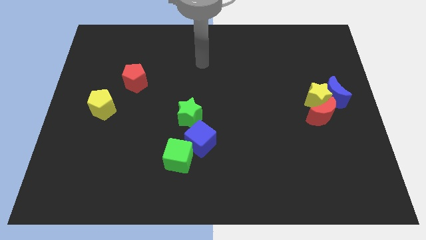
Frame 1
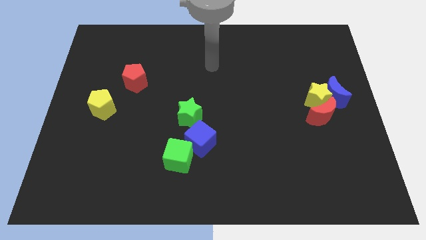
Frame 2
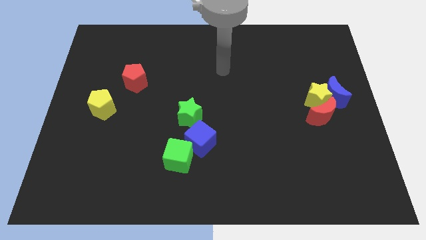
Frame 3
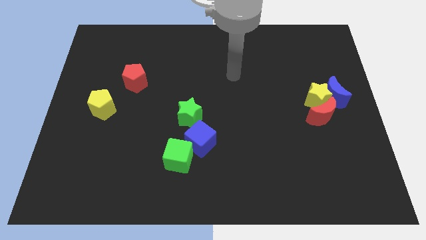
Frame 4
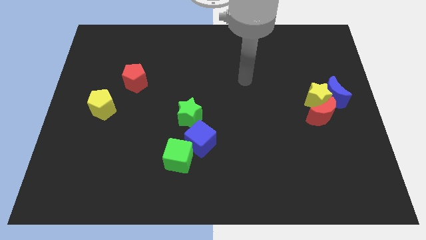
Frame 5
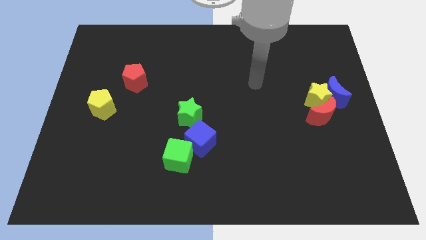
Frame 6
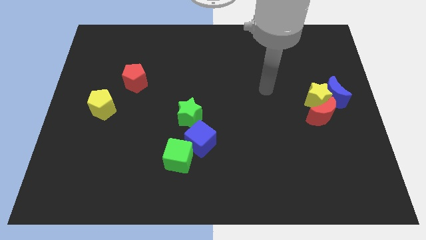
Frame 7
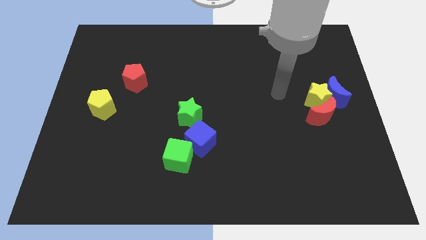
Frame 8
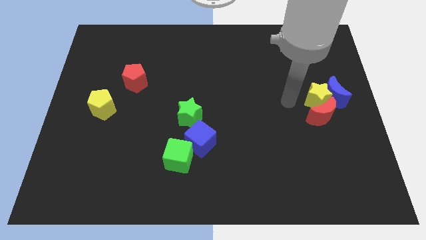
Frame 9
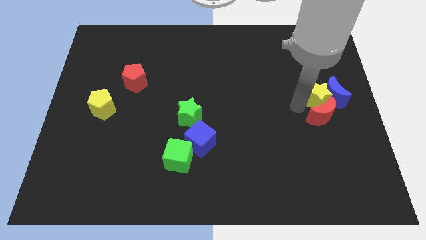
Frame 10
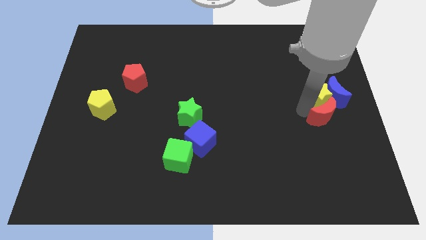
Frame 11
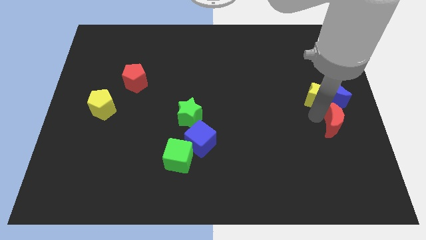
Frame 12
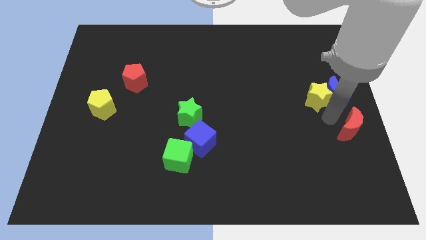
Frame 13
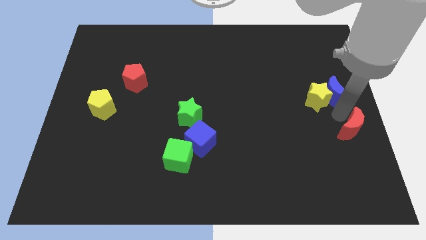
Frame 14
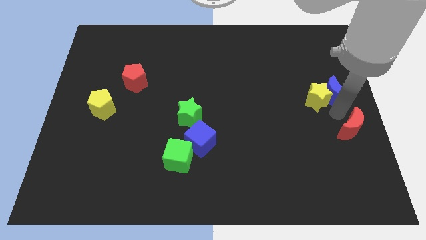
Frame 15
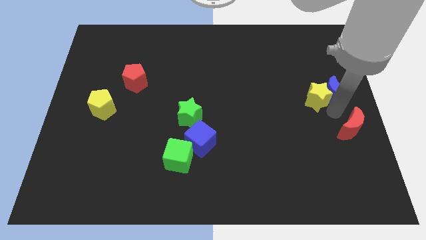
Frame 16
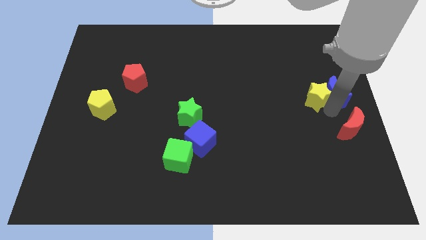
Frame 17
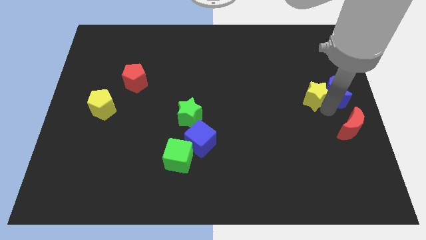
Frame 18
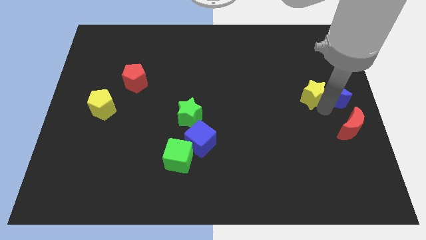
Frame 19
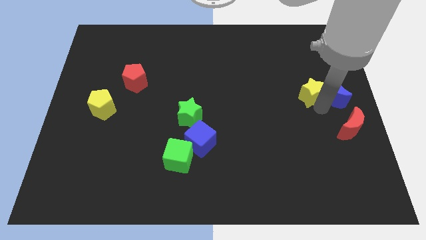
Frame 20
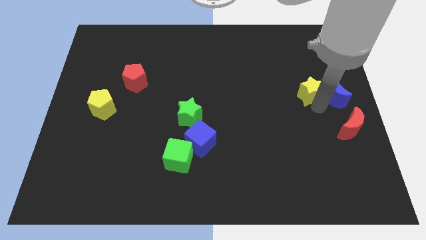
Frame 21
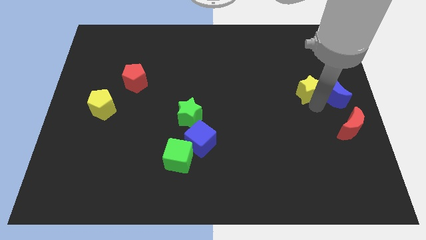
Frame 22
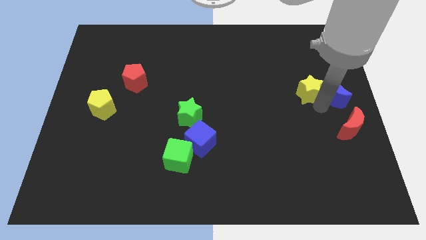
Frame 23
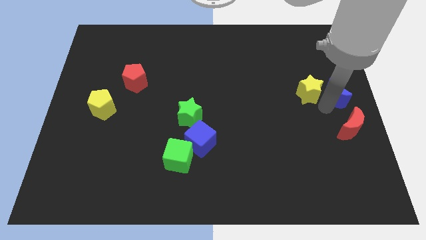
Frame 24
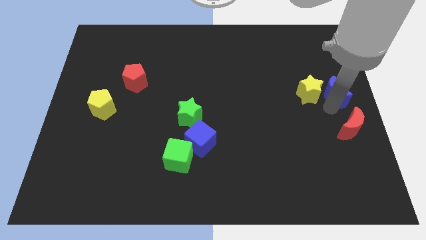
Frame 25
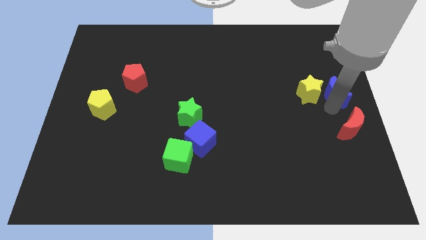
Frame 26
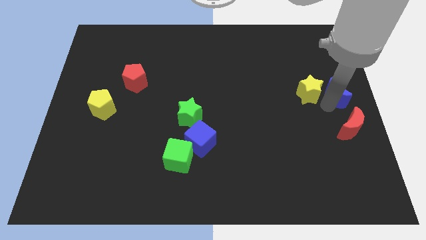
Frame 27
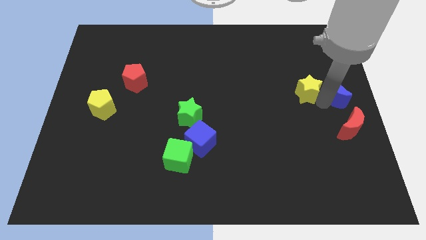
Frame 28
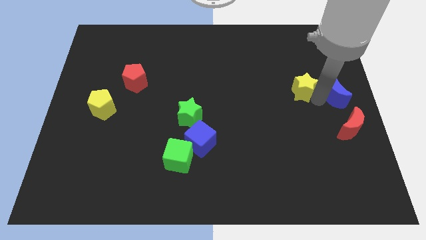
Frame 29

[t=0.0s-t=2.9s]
separate the yellow star from the blue moon and red moon

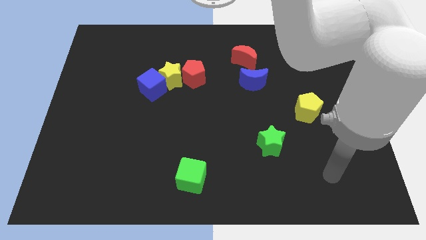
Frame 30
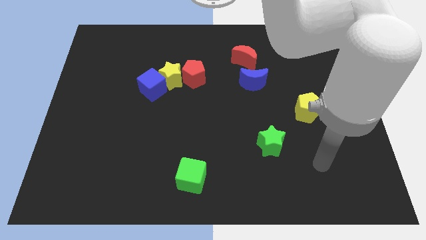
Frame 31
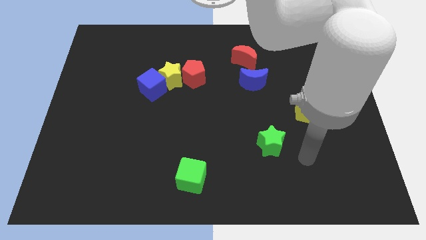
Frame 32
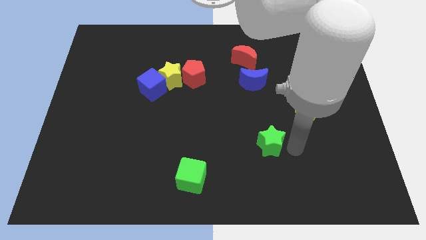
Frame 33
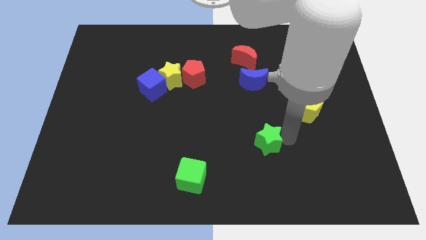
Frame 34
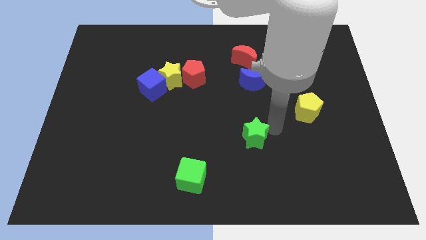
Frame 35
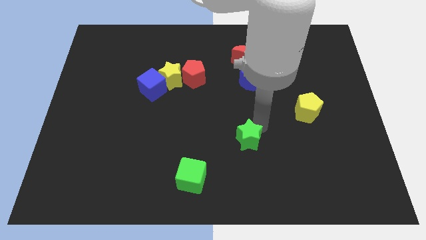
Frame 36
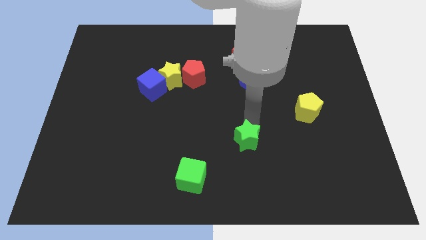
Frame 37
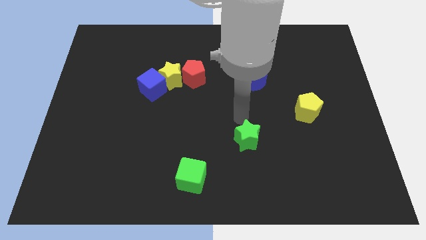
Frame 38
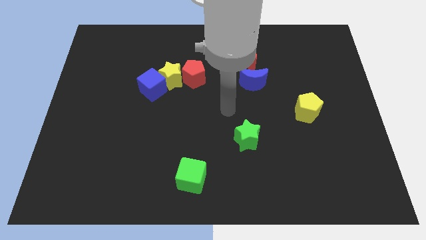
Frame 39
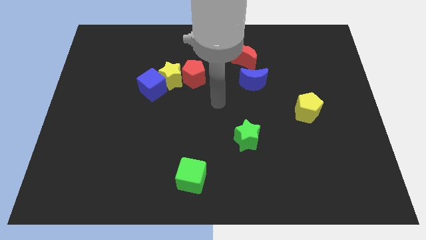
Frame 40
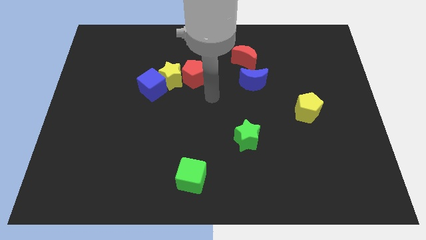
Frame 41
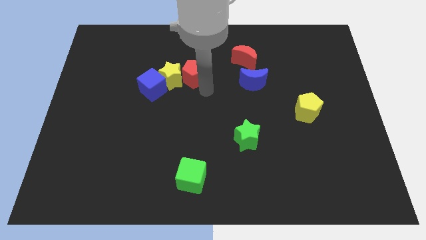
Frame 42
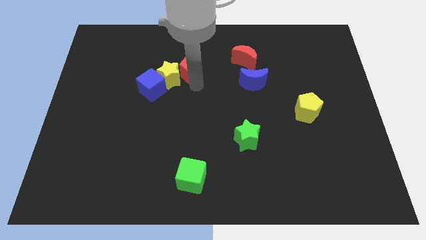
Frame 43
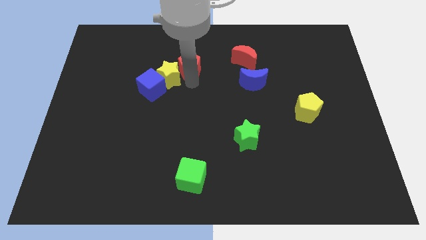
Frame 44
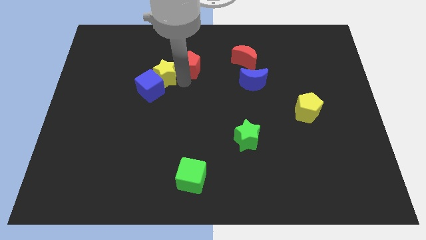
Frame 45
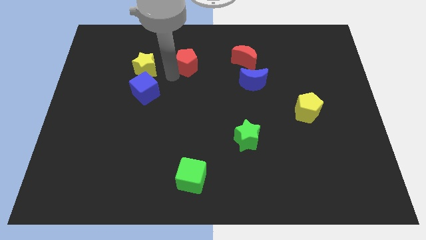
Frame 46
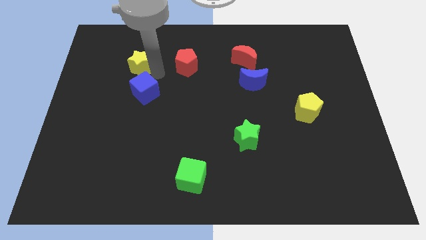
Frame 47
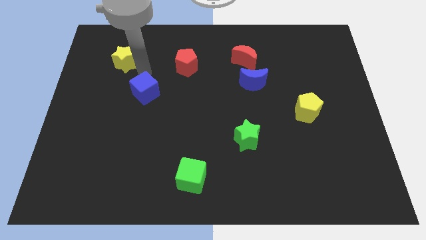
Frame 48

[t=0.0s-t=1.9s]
separate the blue cube from the yellow star

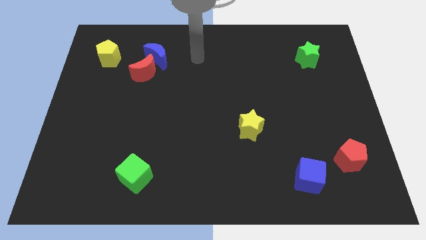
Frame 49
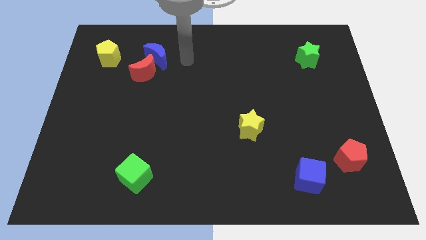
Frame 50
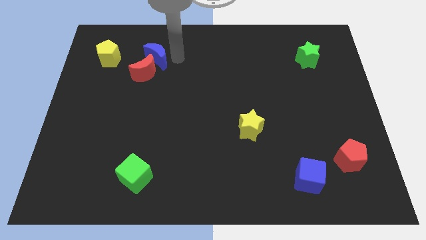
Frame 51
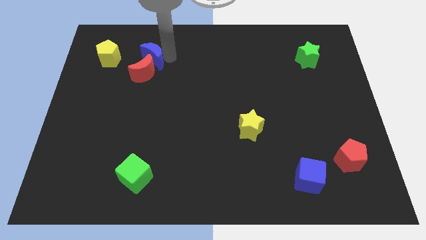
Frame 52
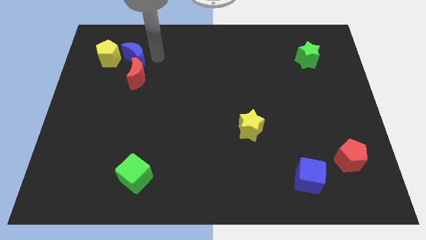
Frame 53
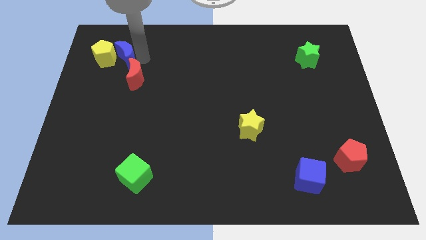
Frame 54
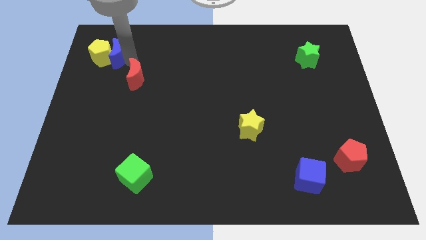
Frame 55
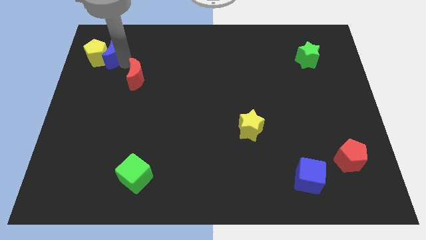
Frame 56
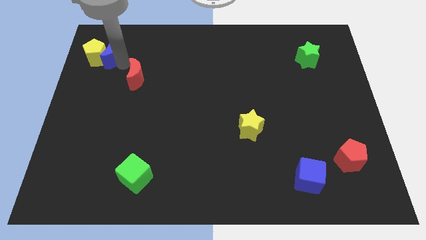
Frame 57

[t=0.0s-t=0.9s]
separate the red moon from the blue moon

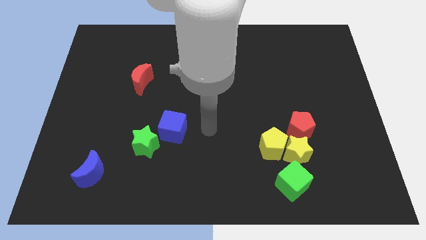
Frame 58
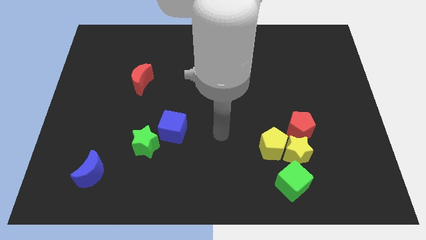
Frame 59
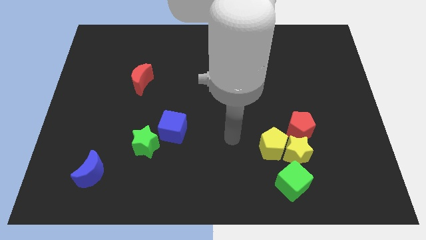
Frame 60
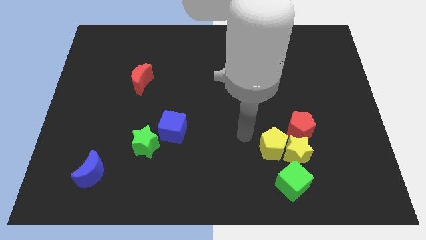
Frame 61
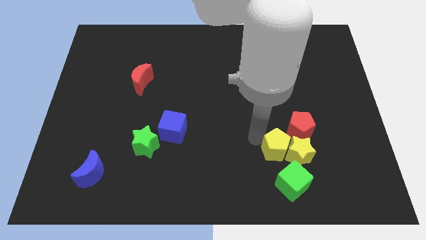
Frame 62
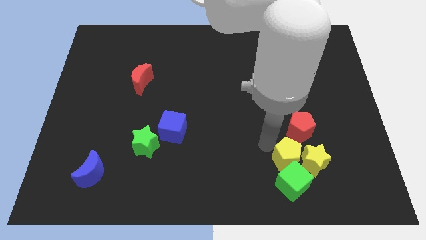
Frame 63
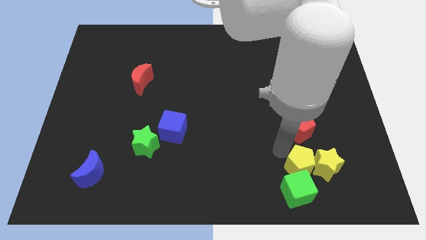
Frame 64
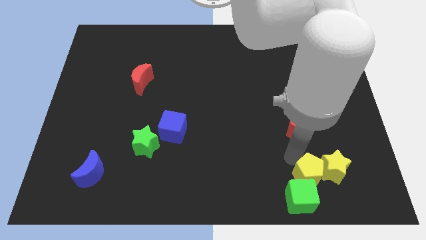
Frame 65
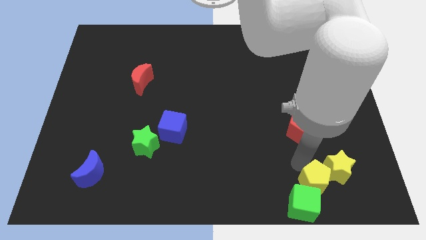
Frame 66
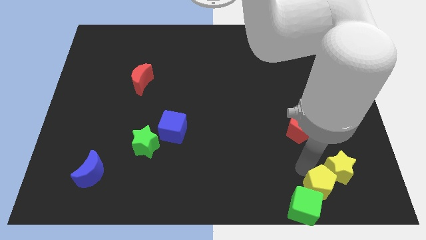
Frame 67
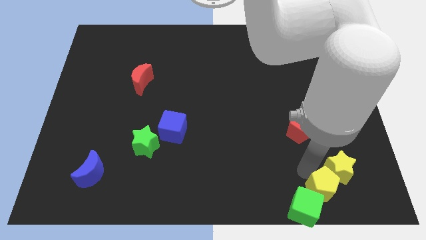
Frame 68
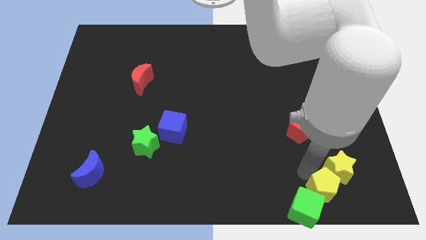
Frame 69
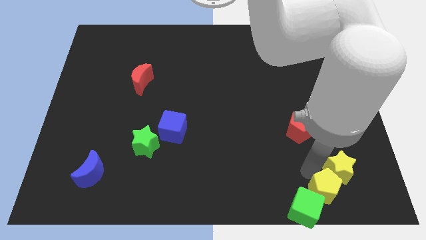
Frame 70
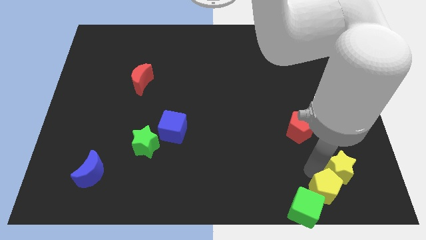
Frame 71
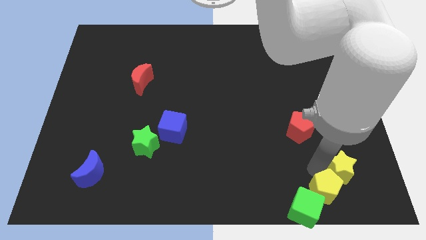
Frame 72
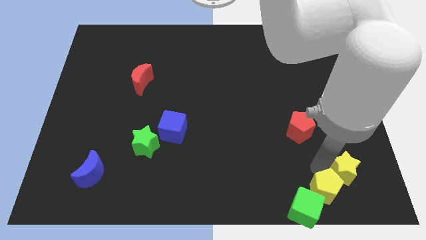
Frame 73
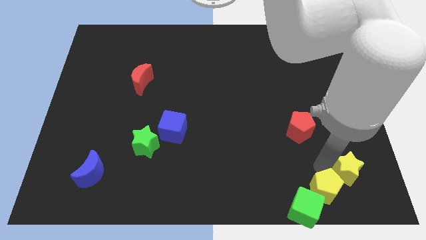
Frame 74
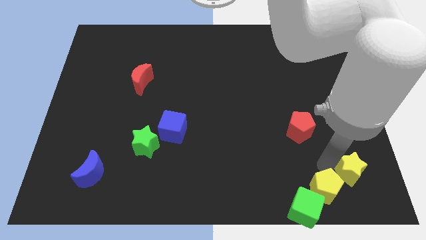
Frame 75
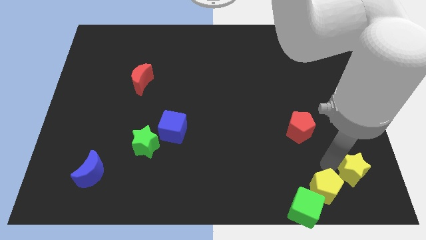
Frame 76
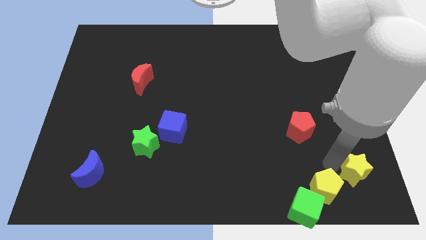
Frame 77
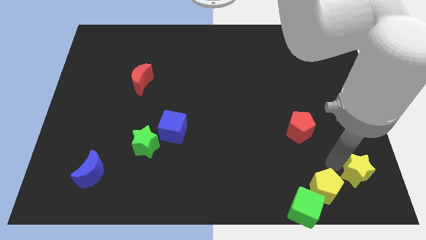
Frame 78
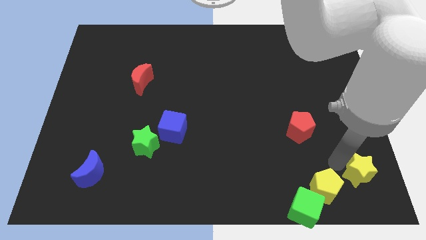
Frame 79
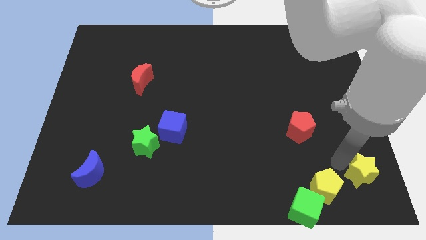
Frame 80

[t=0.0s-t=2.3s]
pull the yellow star apart from the clump

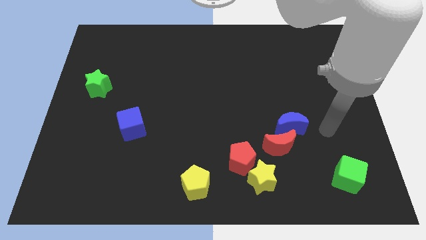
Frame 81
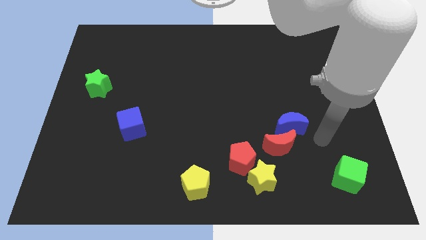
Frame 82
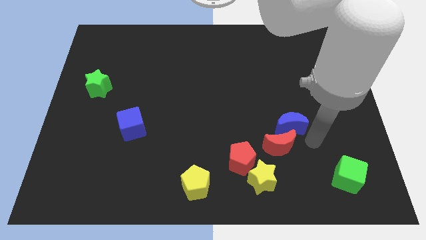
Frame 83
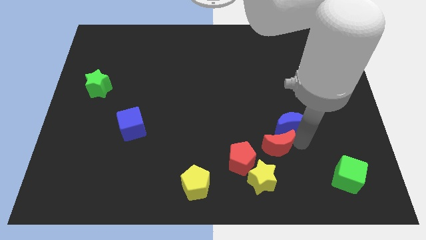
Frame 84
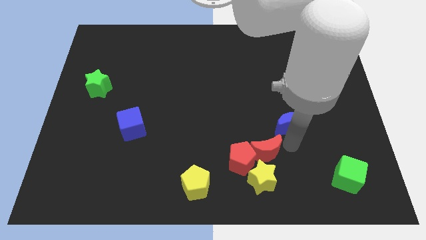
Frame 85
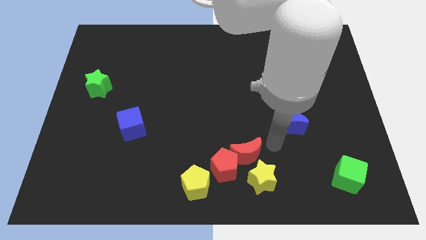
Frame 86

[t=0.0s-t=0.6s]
pull the blue moon apart from the red moon

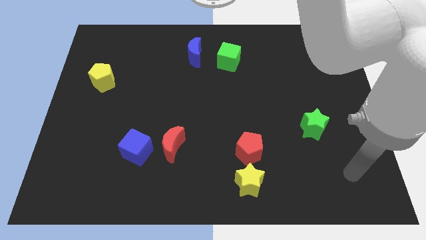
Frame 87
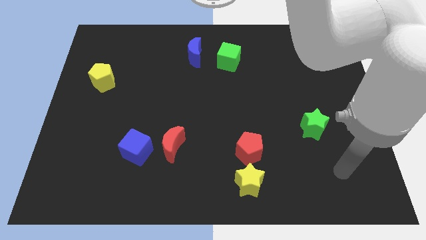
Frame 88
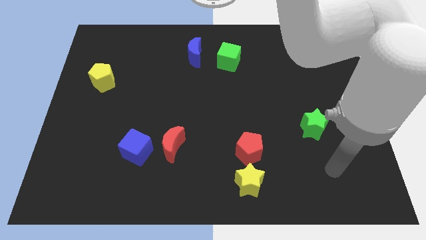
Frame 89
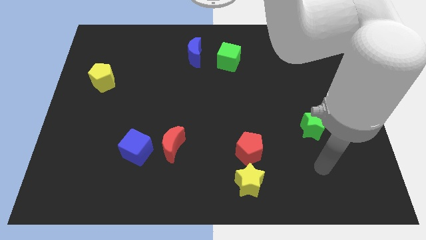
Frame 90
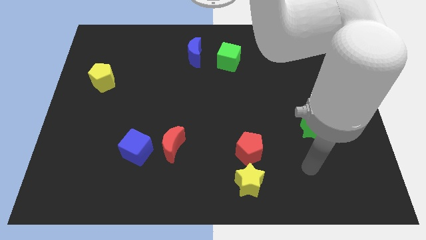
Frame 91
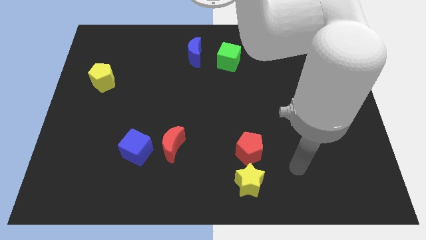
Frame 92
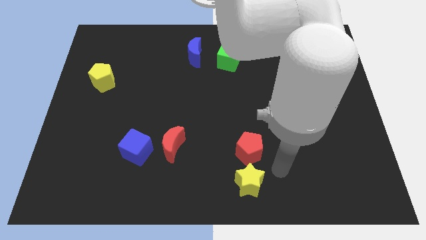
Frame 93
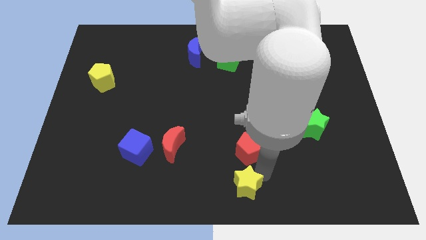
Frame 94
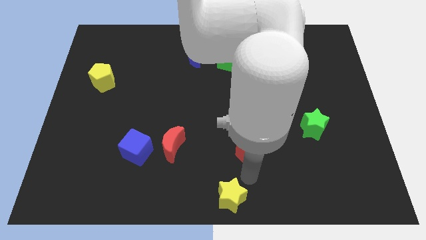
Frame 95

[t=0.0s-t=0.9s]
separate the red pentagon from the yellow star
